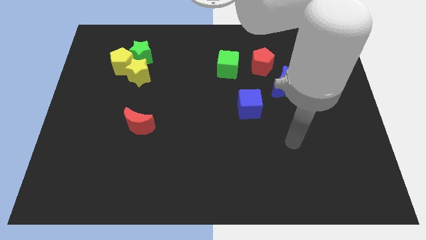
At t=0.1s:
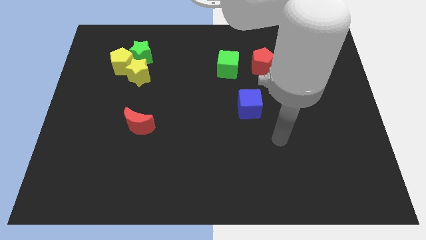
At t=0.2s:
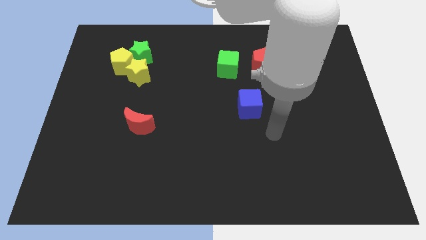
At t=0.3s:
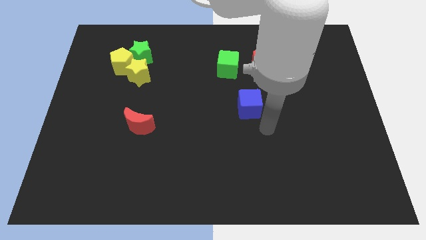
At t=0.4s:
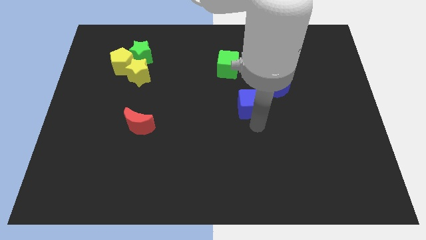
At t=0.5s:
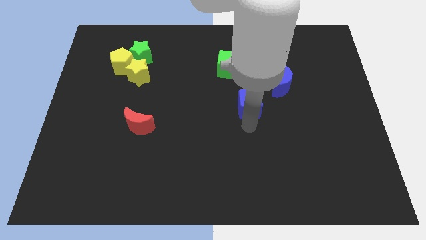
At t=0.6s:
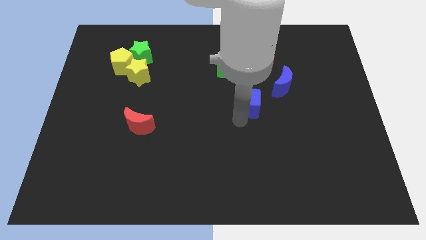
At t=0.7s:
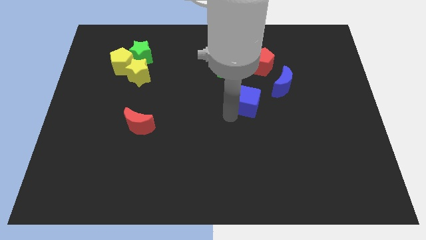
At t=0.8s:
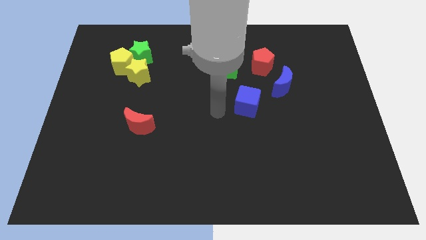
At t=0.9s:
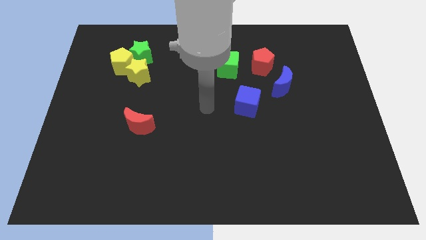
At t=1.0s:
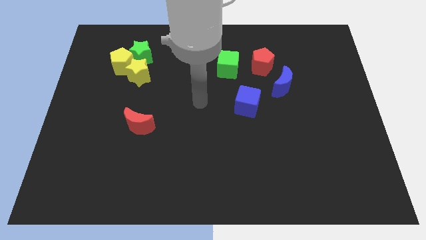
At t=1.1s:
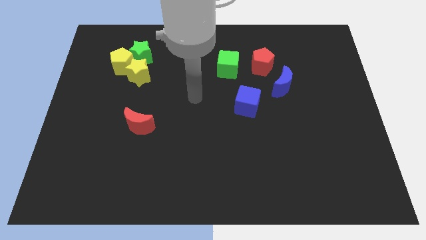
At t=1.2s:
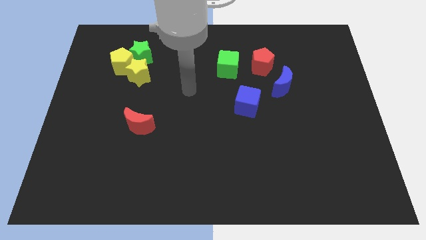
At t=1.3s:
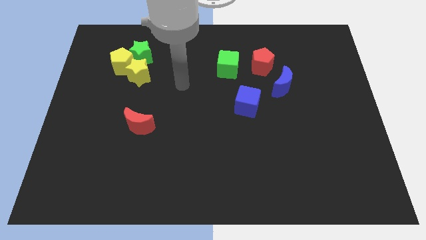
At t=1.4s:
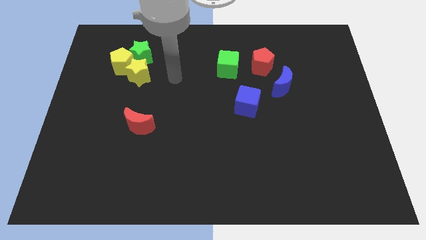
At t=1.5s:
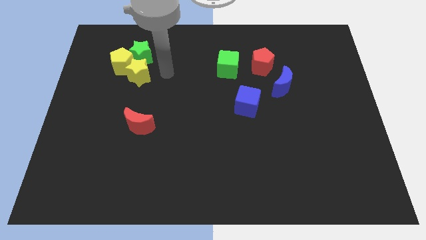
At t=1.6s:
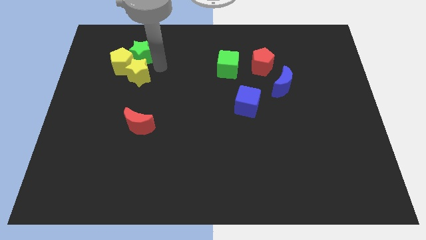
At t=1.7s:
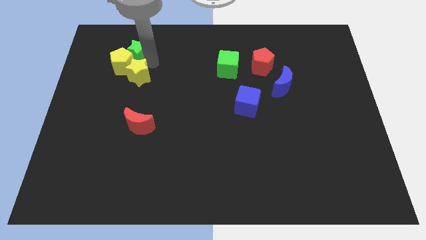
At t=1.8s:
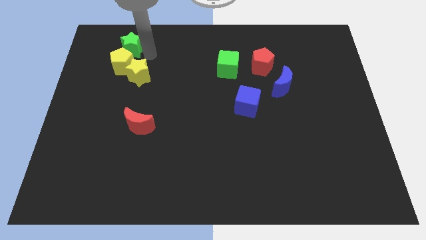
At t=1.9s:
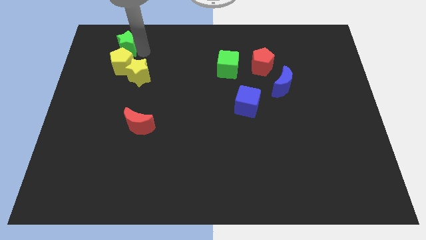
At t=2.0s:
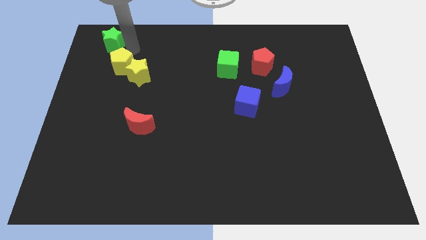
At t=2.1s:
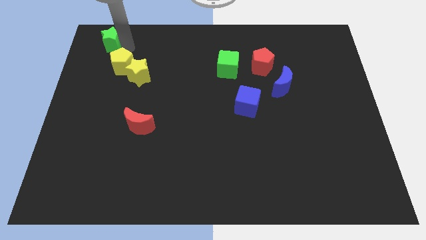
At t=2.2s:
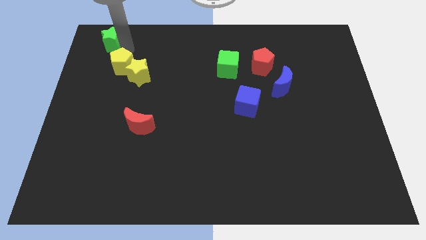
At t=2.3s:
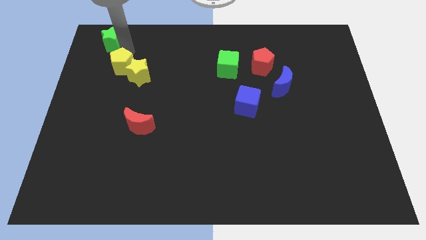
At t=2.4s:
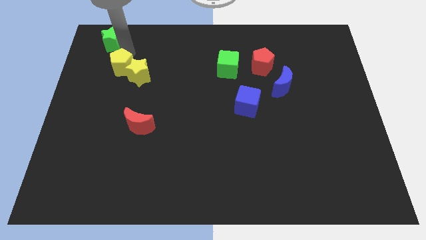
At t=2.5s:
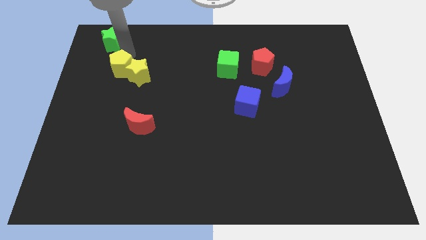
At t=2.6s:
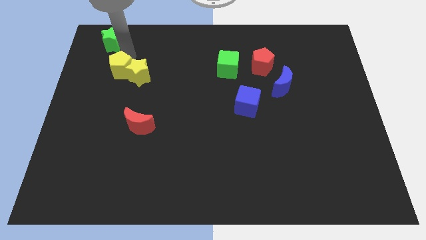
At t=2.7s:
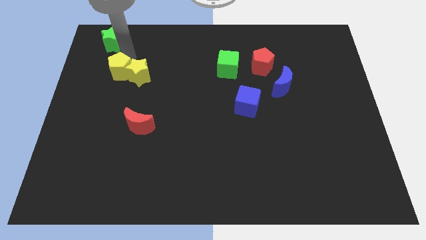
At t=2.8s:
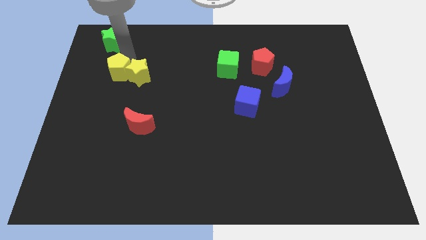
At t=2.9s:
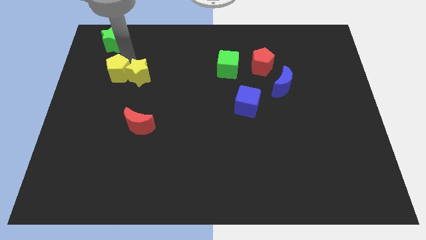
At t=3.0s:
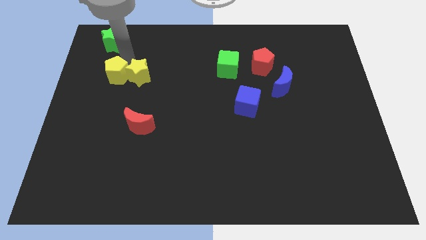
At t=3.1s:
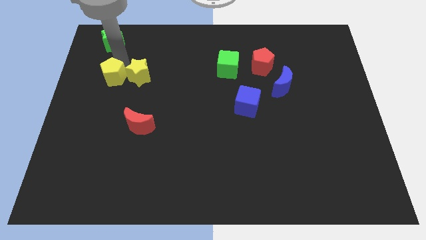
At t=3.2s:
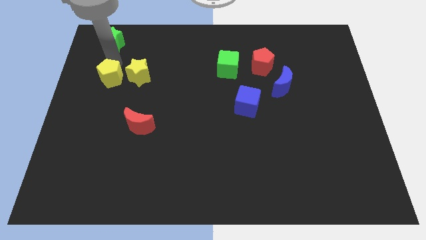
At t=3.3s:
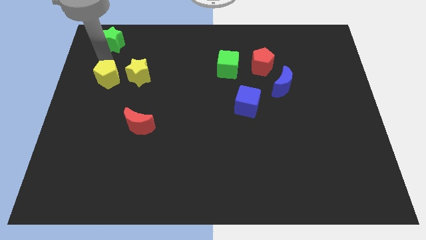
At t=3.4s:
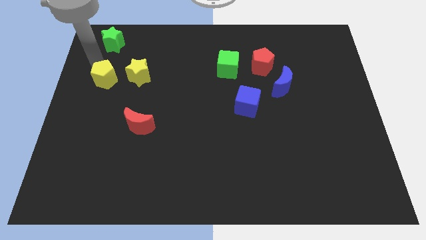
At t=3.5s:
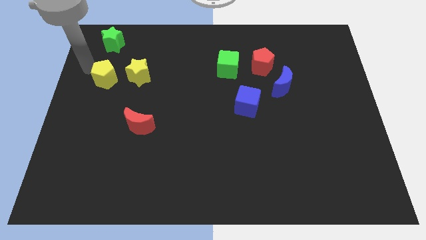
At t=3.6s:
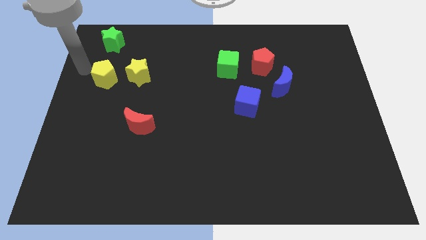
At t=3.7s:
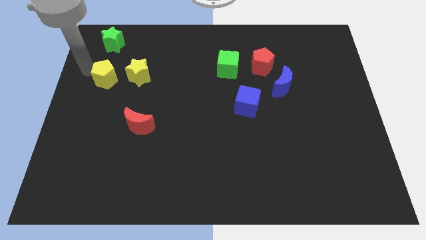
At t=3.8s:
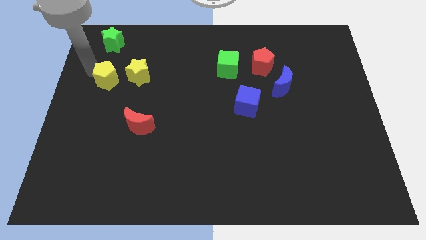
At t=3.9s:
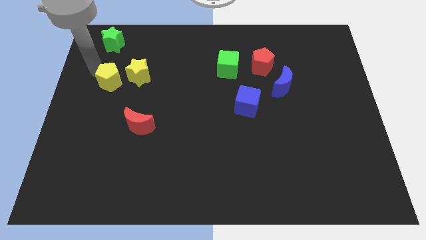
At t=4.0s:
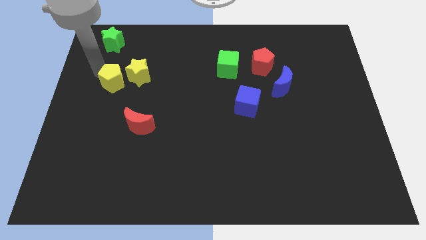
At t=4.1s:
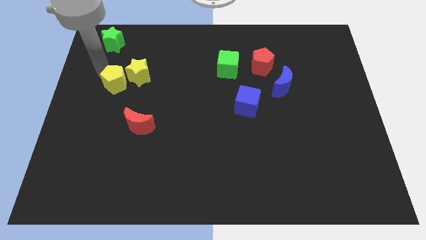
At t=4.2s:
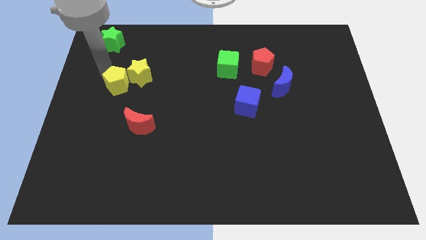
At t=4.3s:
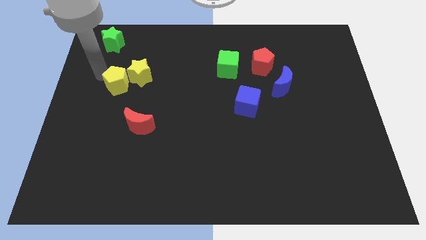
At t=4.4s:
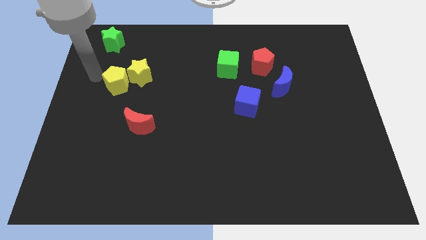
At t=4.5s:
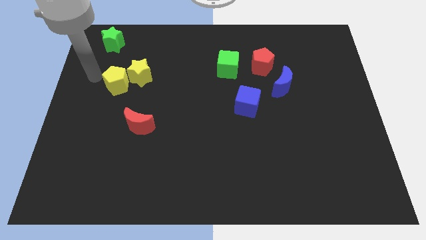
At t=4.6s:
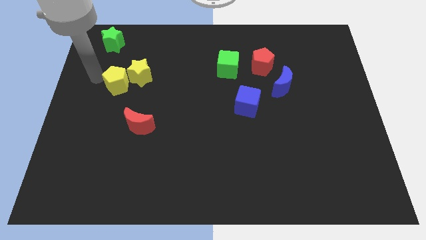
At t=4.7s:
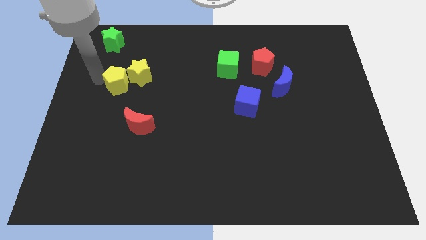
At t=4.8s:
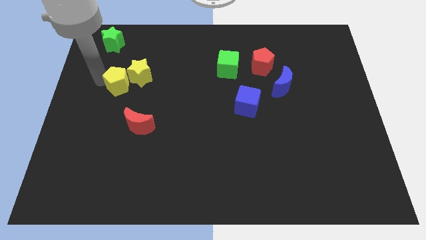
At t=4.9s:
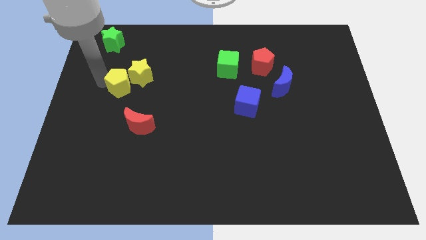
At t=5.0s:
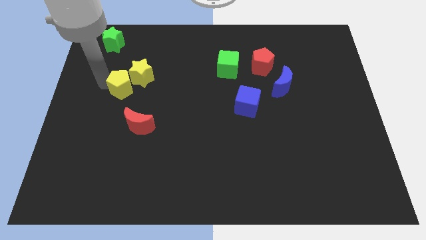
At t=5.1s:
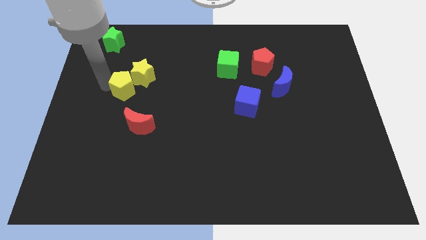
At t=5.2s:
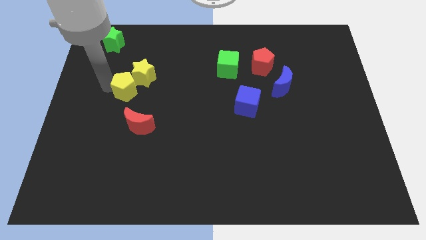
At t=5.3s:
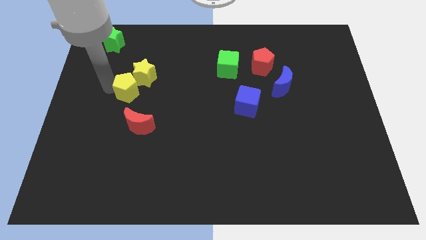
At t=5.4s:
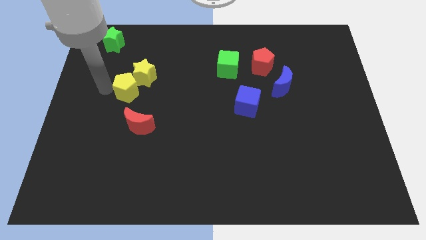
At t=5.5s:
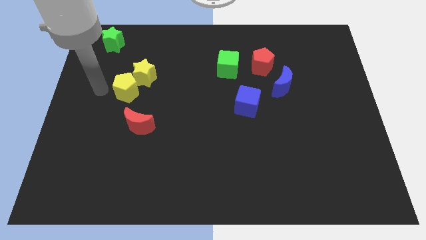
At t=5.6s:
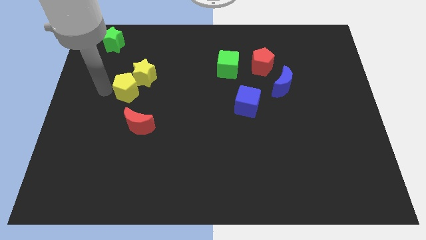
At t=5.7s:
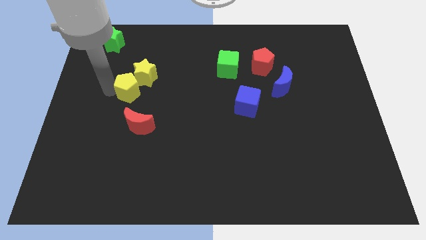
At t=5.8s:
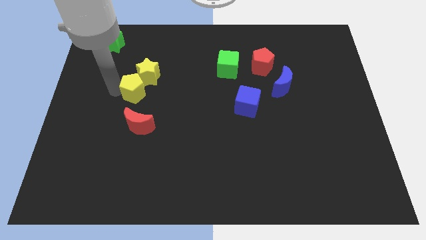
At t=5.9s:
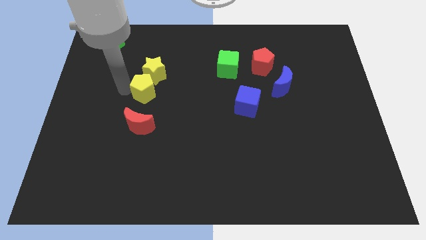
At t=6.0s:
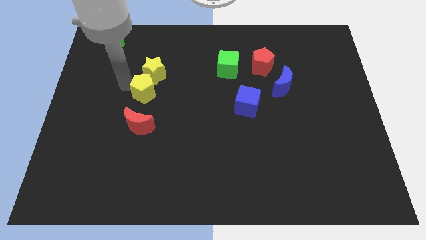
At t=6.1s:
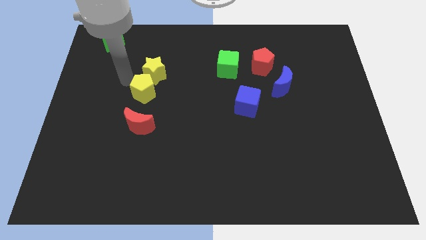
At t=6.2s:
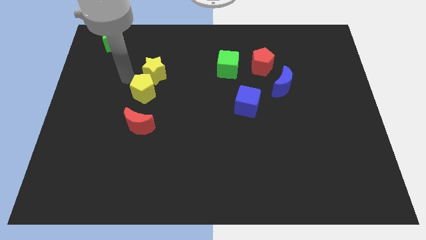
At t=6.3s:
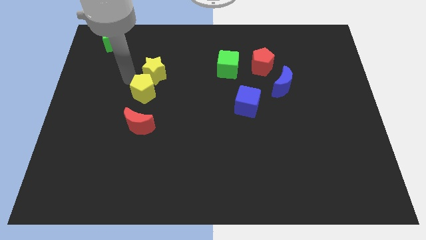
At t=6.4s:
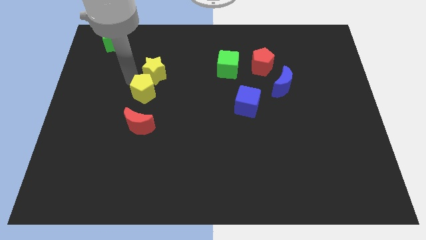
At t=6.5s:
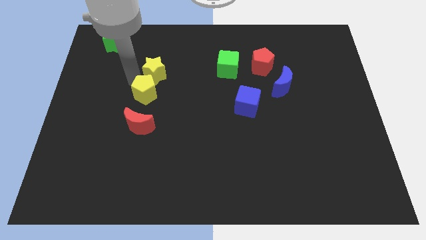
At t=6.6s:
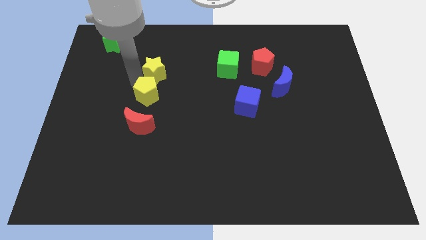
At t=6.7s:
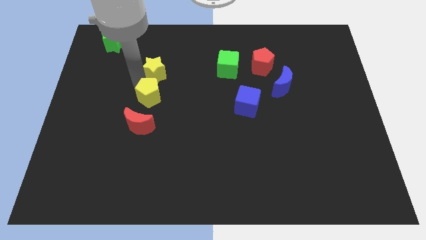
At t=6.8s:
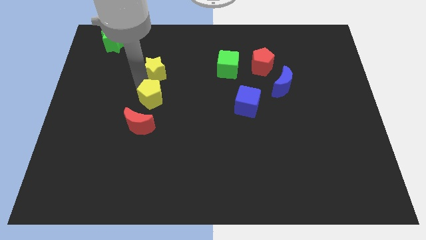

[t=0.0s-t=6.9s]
slide the yellow pentagon to the top right of the red moon
